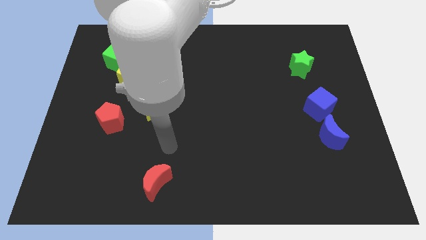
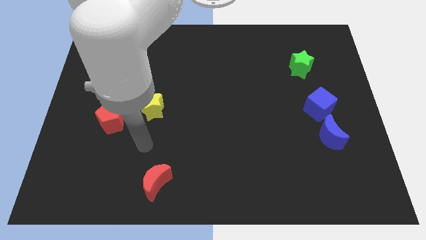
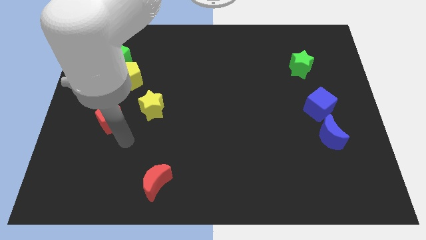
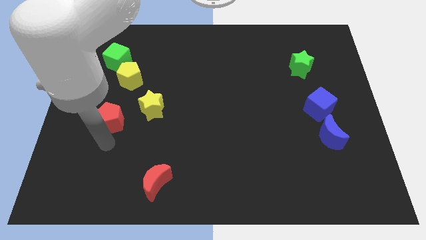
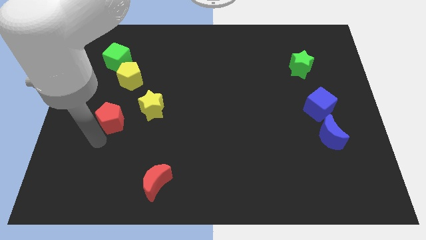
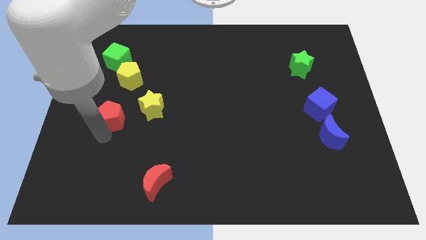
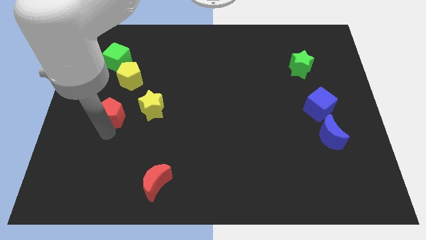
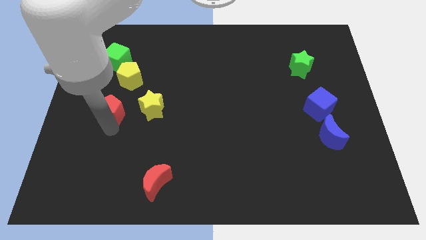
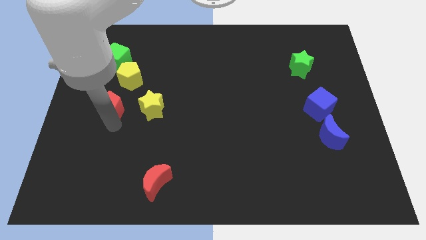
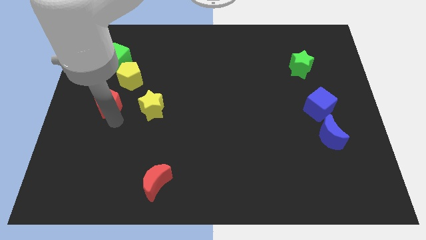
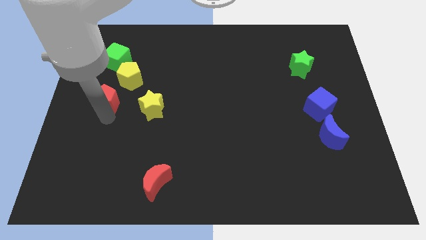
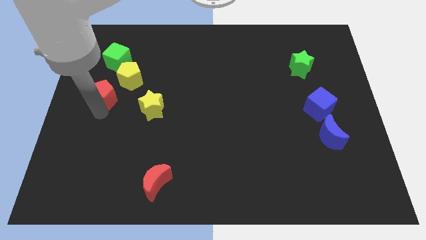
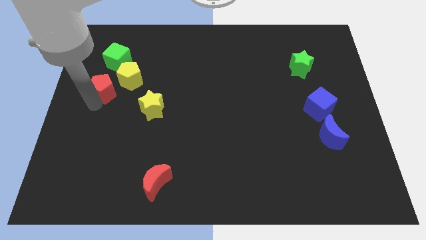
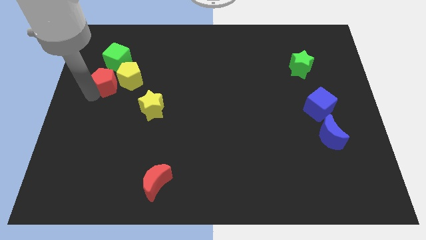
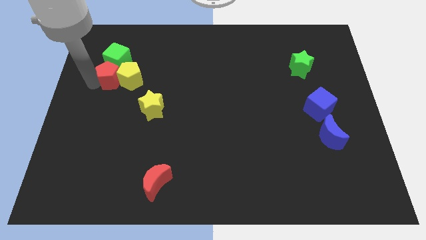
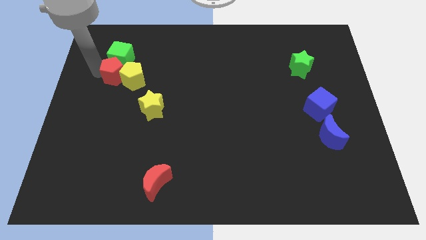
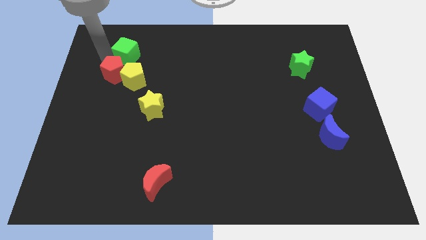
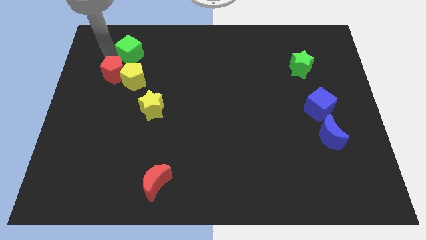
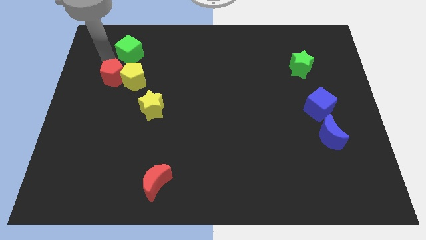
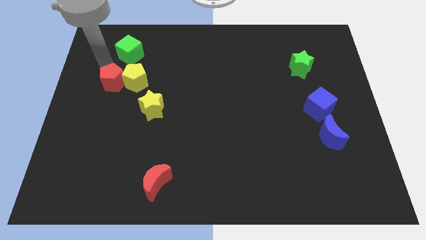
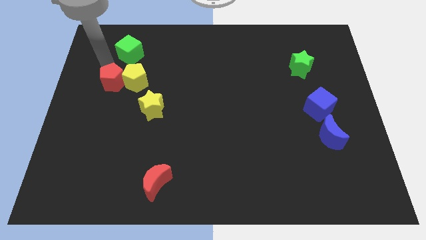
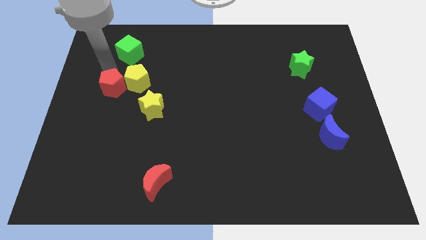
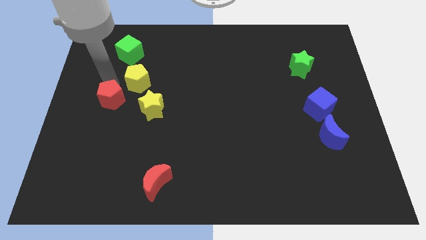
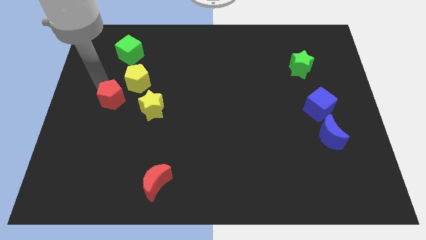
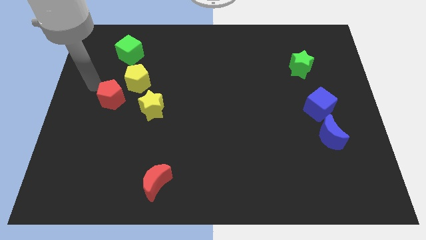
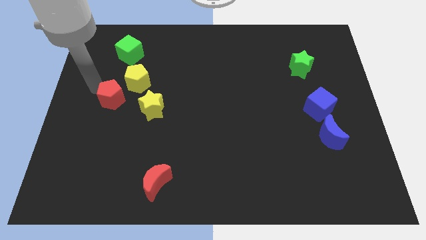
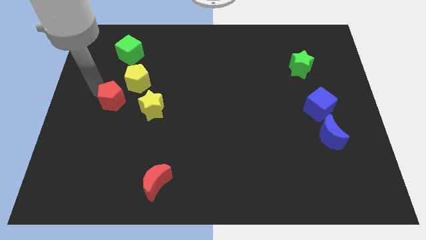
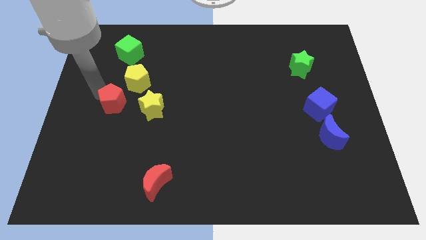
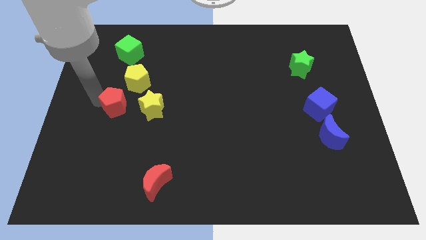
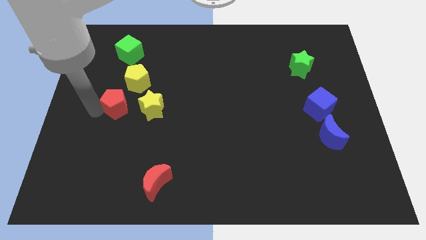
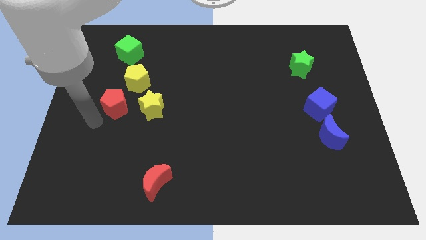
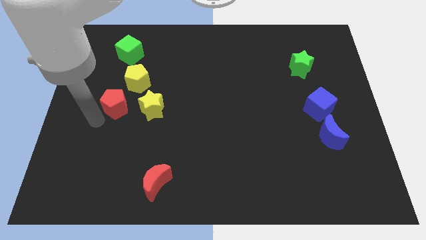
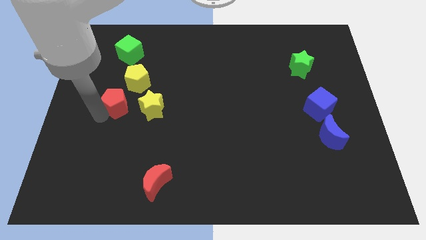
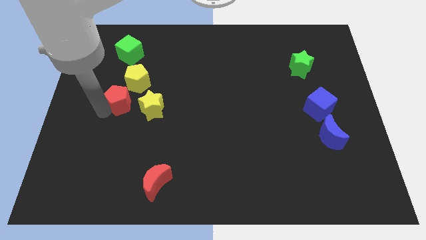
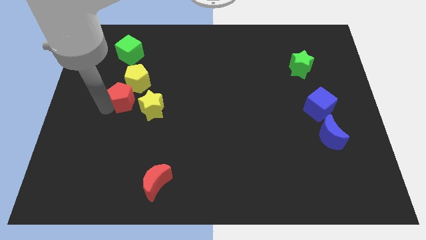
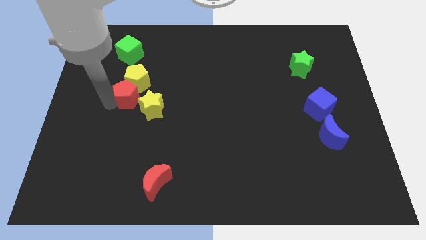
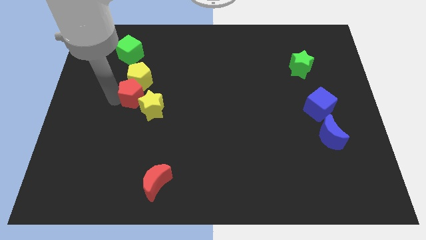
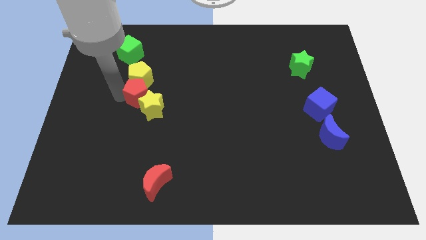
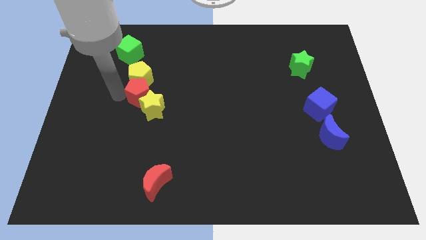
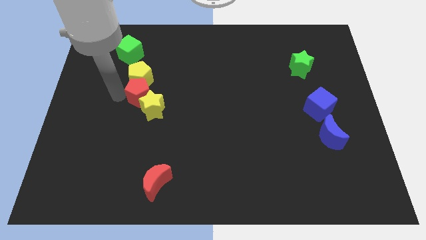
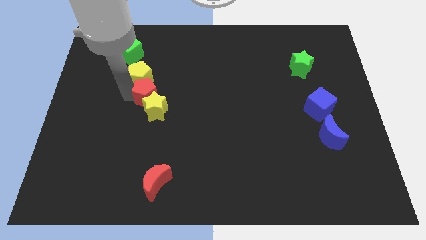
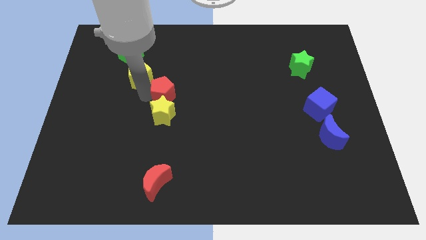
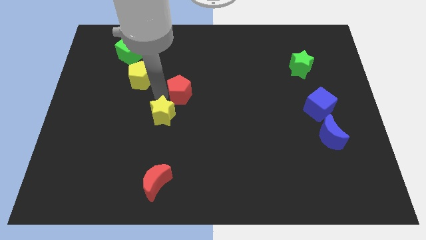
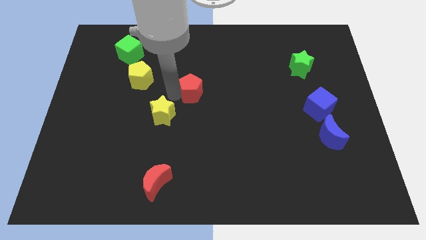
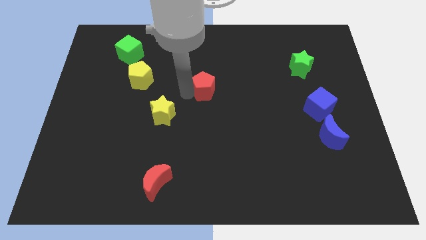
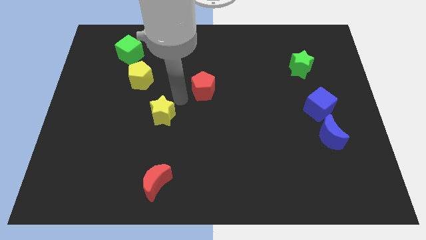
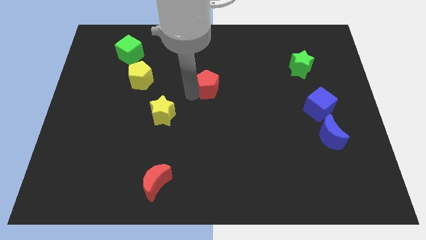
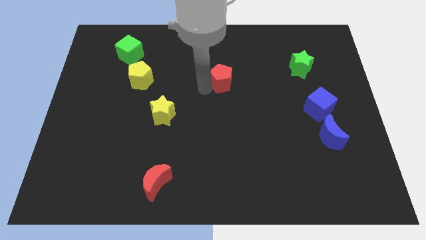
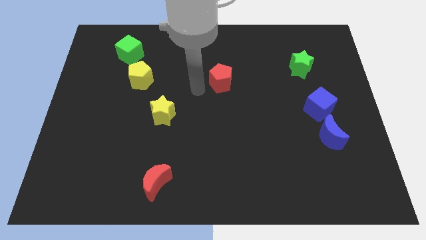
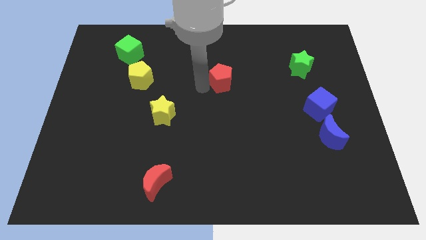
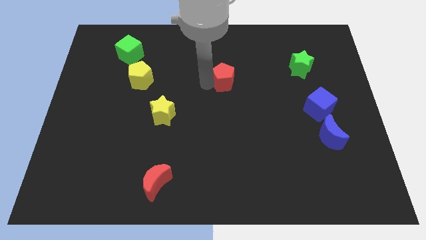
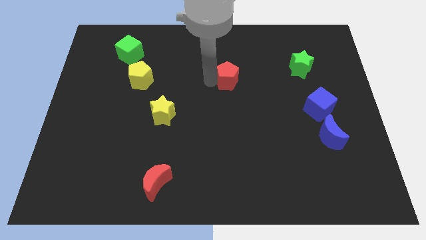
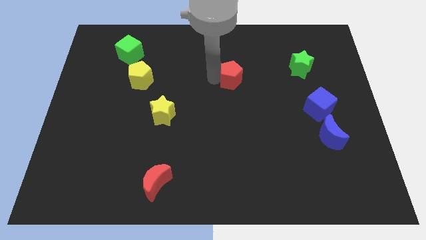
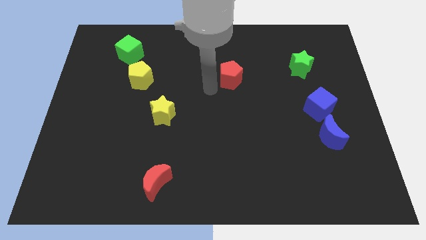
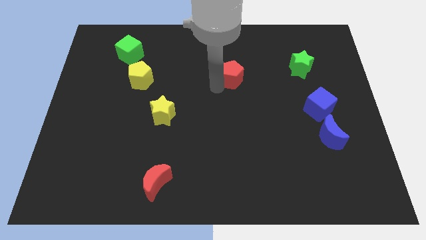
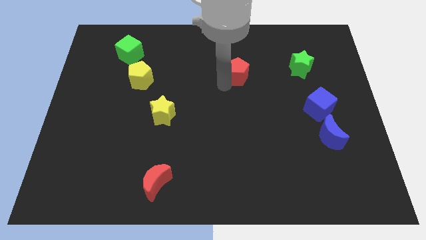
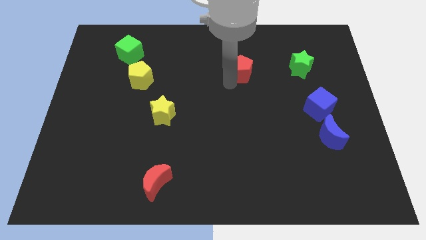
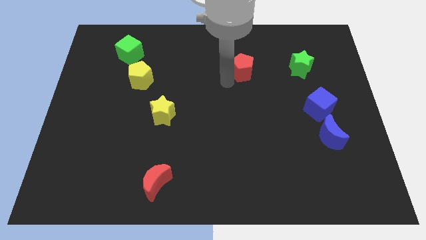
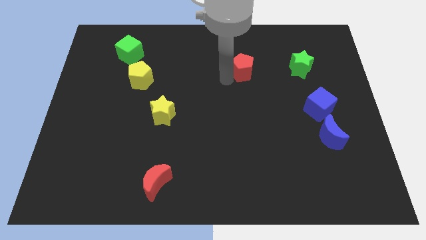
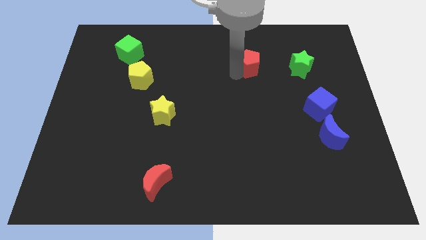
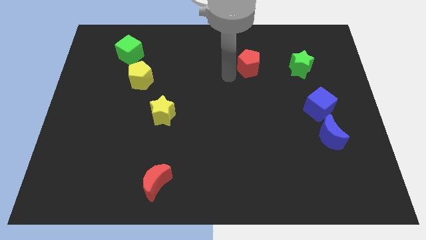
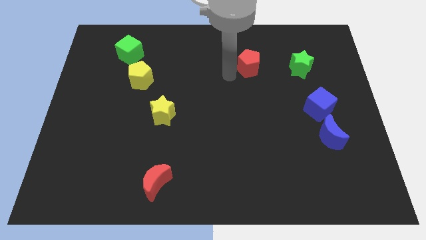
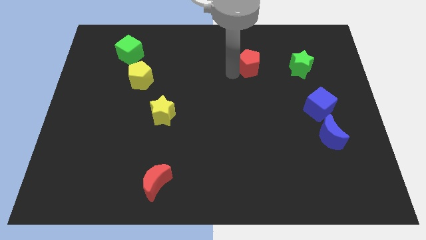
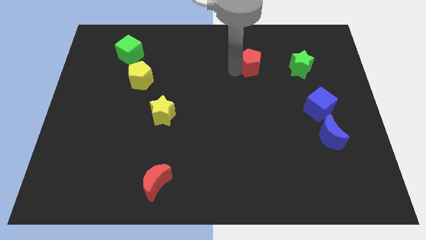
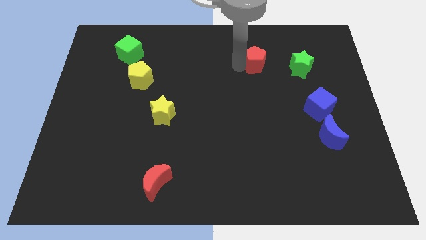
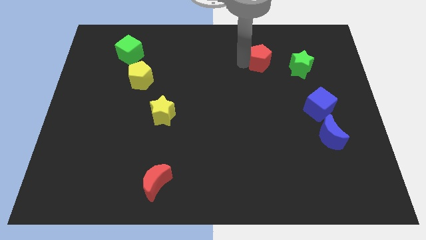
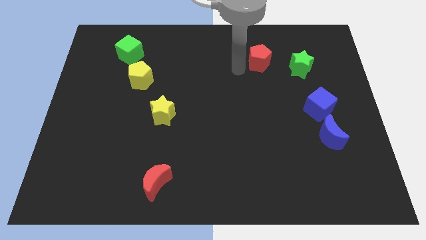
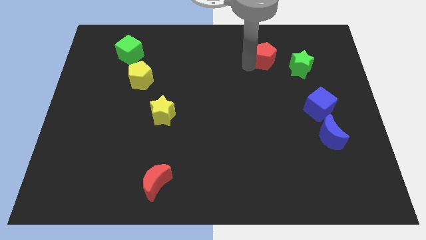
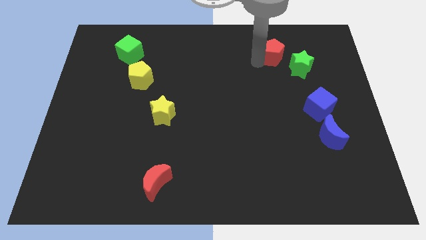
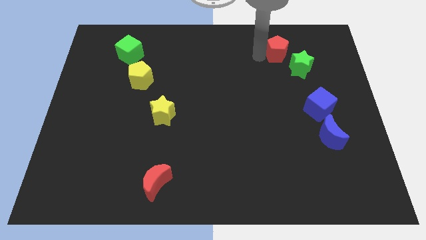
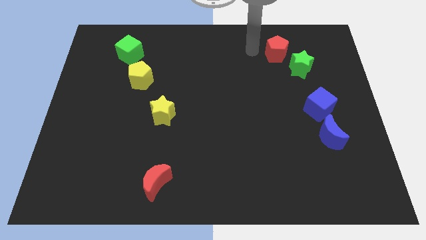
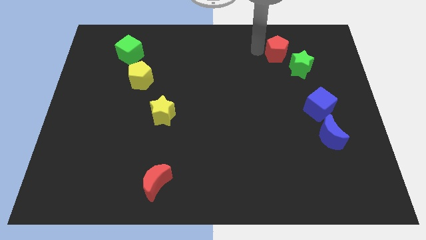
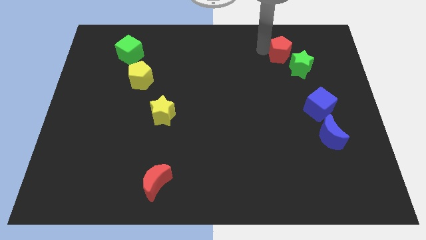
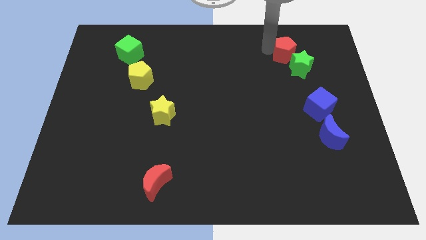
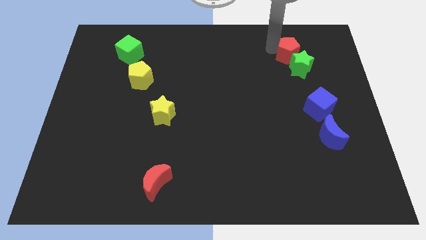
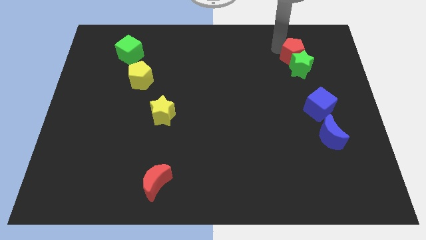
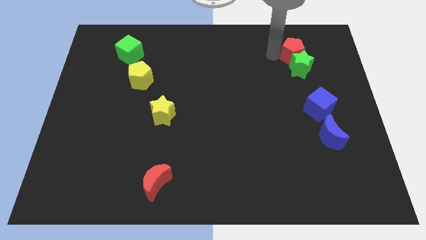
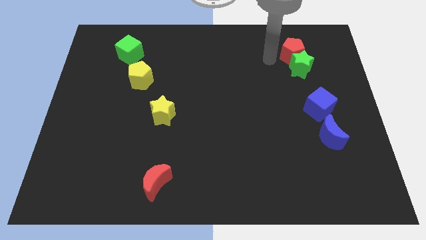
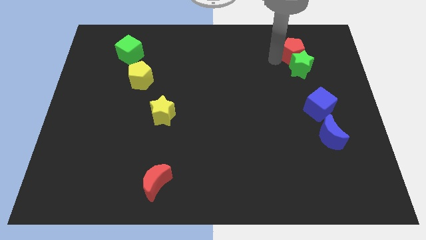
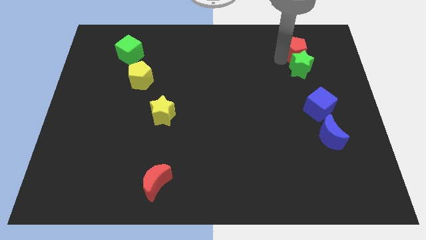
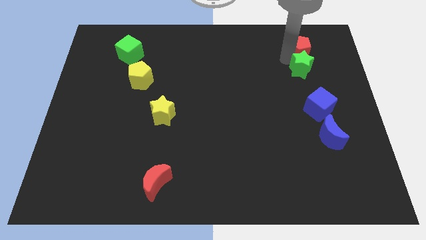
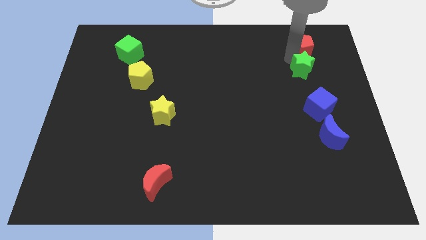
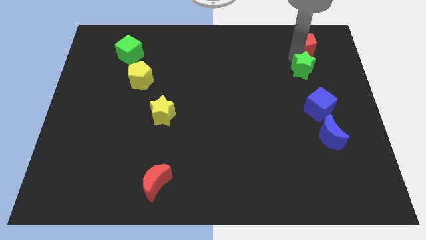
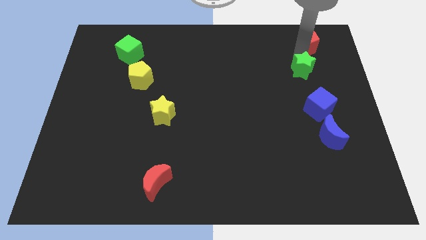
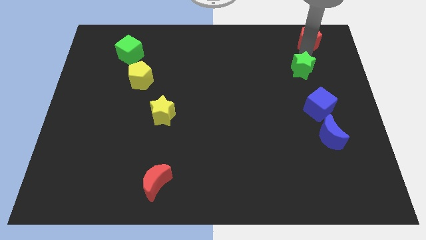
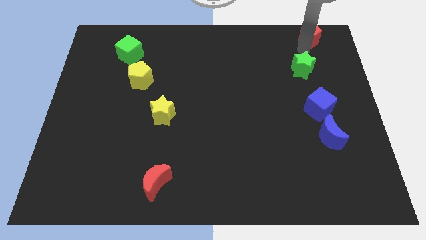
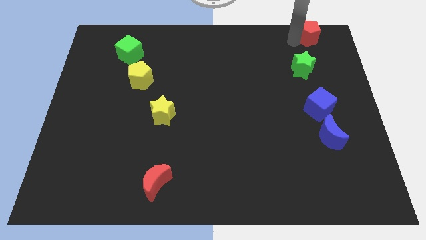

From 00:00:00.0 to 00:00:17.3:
slide the red pentagon to the top right of the board
